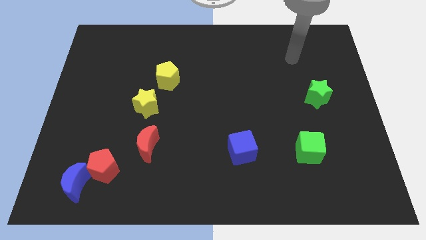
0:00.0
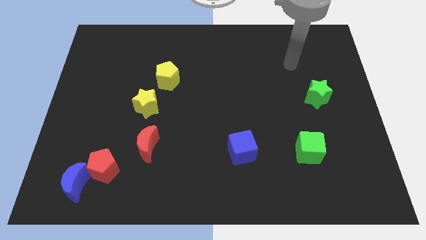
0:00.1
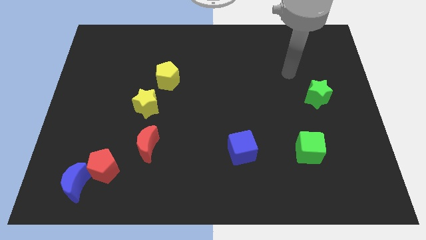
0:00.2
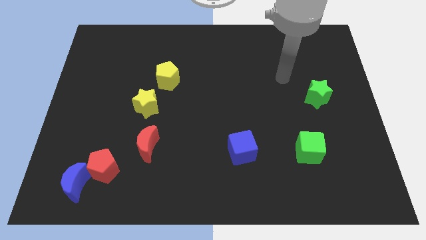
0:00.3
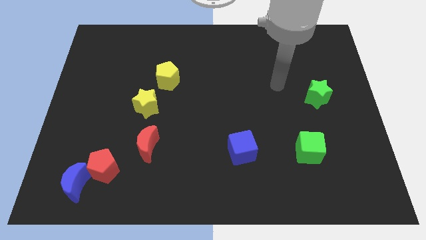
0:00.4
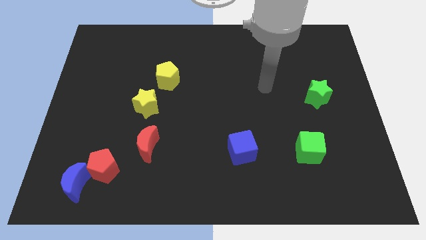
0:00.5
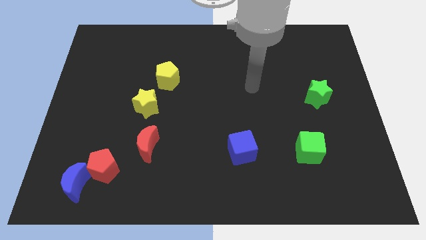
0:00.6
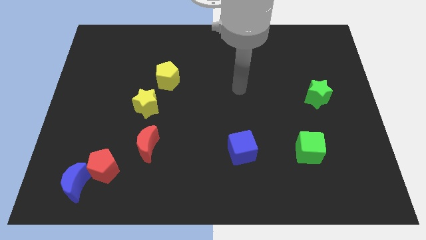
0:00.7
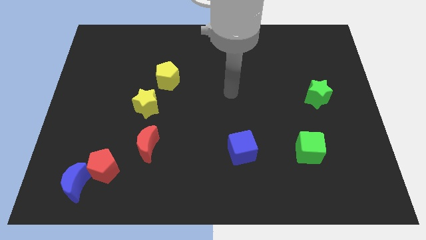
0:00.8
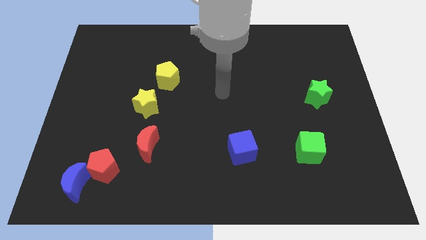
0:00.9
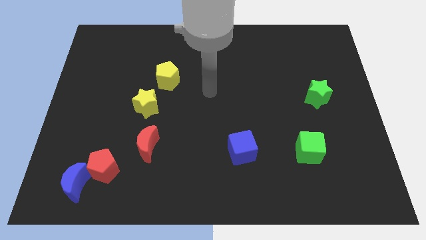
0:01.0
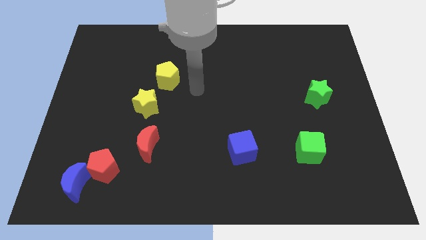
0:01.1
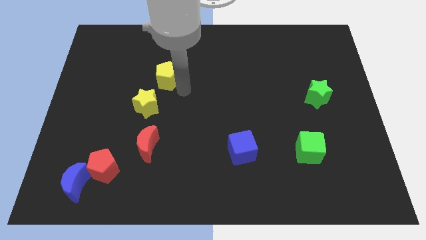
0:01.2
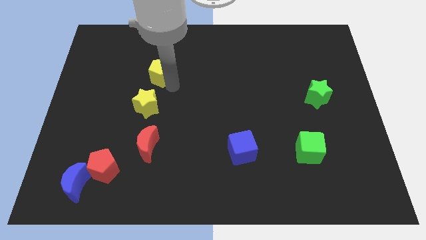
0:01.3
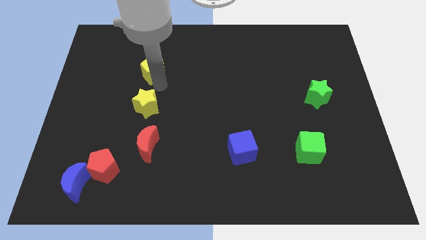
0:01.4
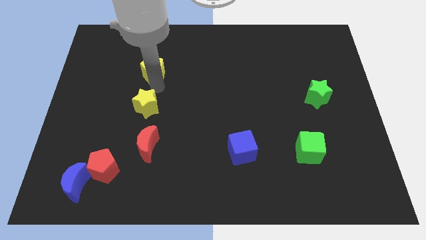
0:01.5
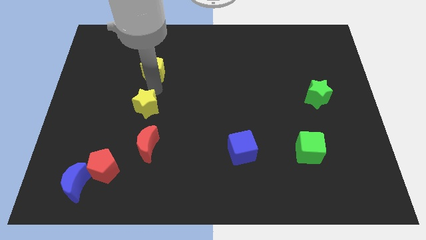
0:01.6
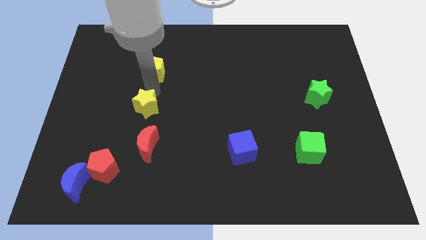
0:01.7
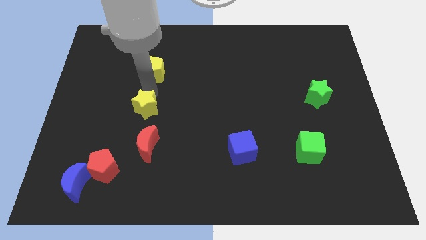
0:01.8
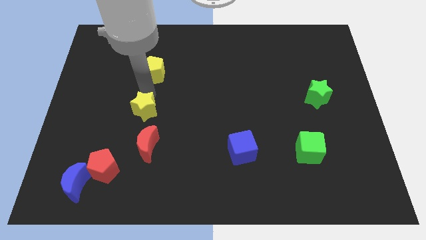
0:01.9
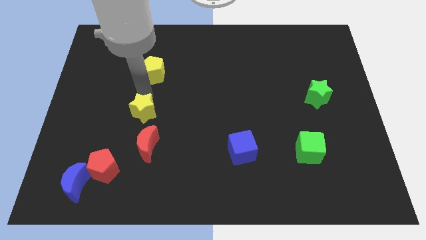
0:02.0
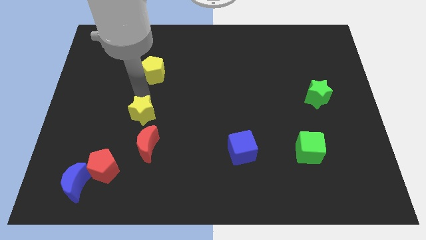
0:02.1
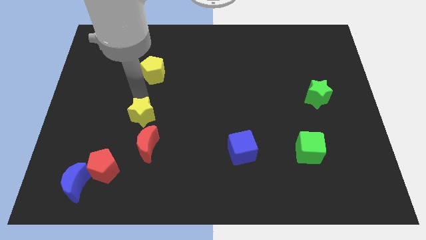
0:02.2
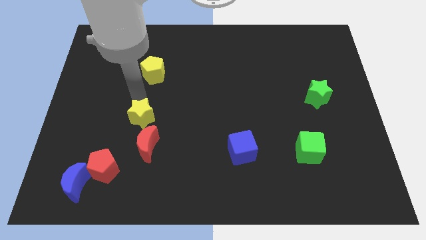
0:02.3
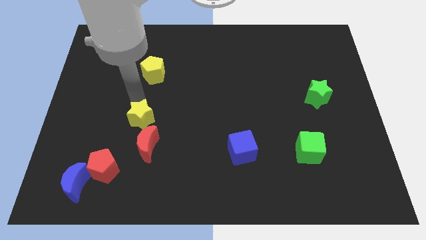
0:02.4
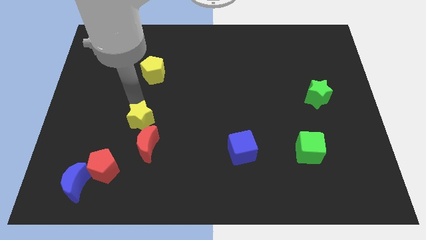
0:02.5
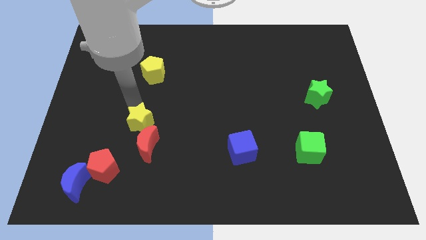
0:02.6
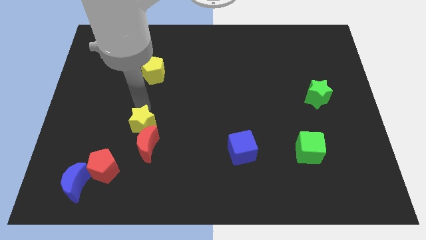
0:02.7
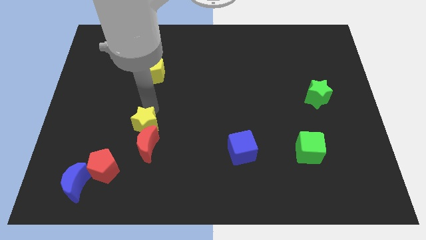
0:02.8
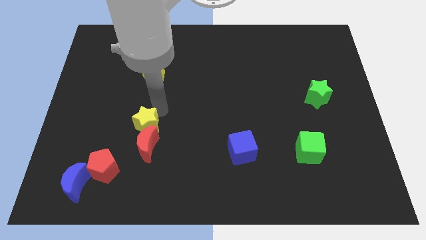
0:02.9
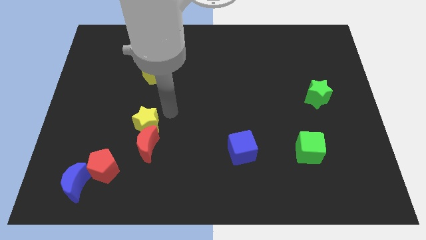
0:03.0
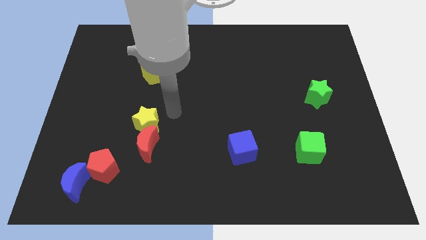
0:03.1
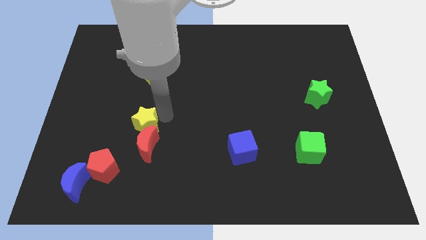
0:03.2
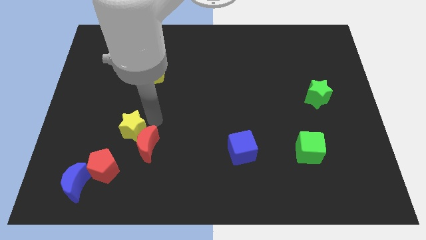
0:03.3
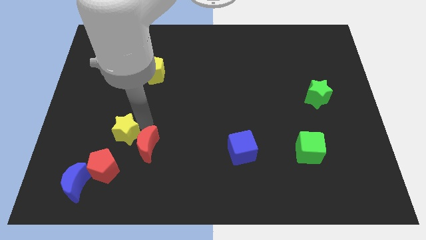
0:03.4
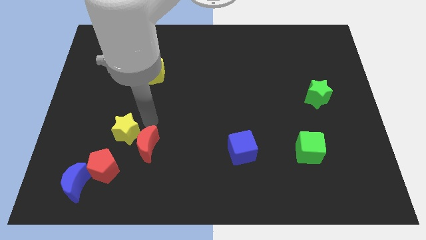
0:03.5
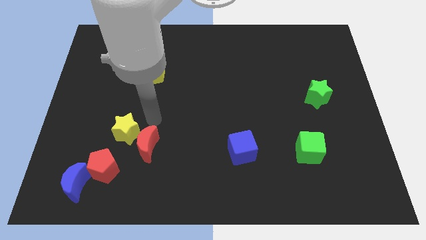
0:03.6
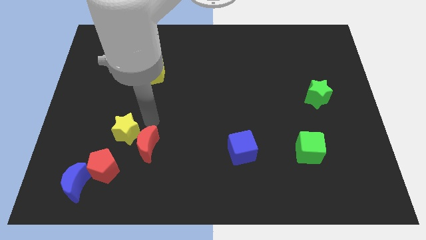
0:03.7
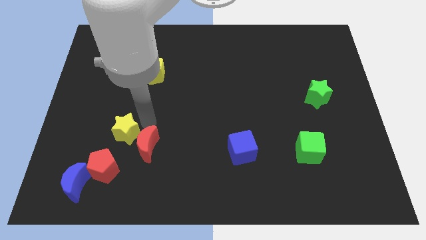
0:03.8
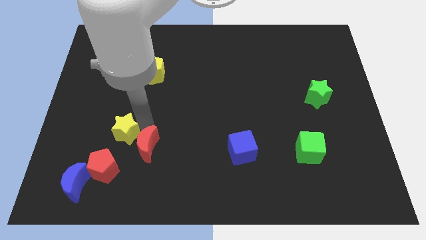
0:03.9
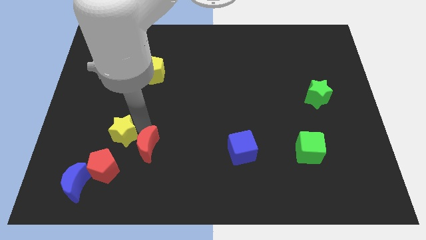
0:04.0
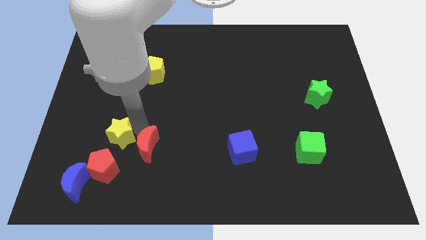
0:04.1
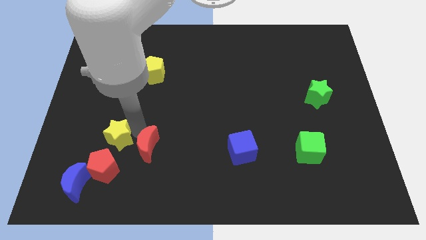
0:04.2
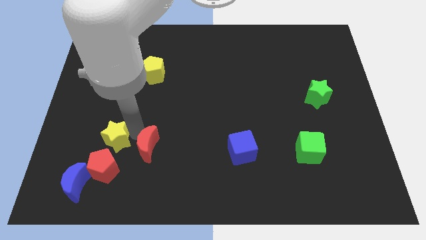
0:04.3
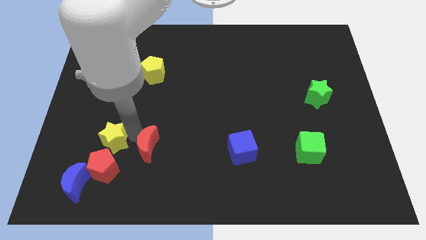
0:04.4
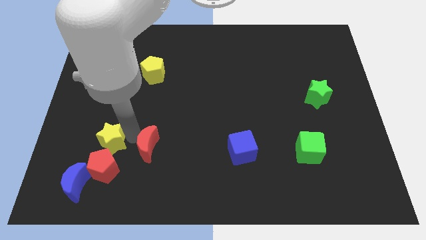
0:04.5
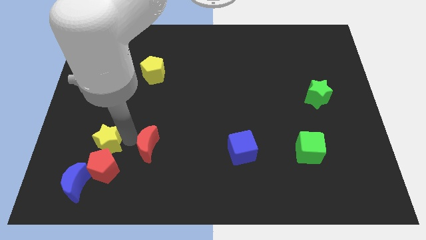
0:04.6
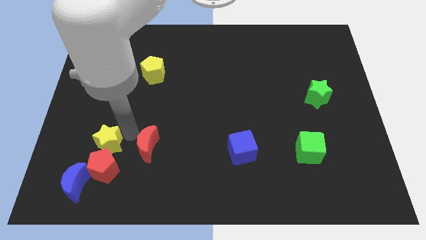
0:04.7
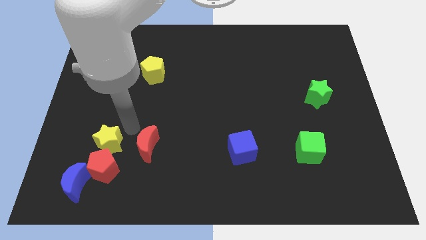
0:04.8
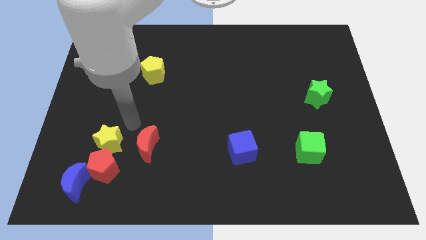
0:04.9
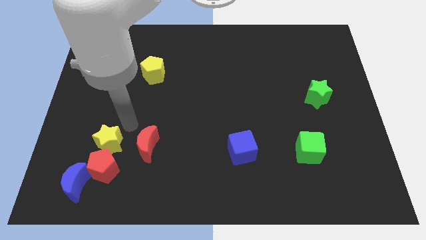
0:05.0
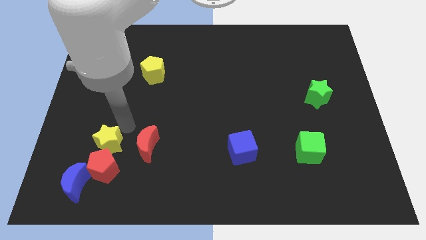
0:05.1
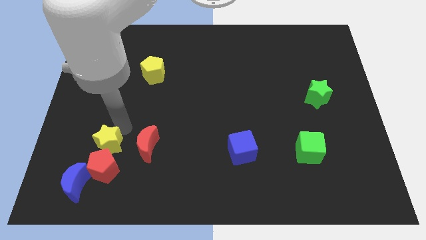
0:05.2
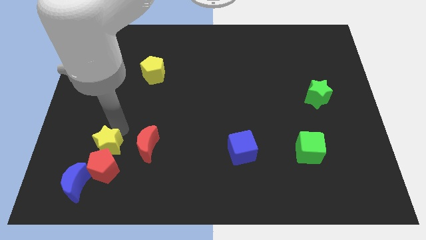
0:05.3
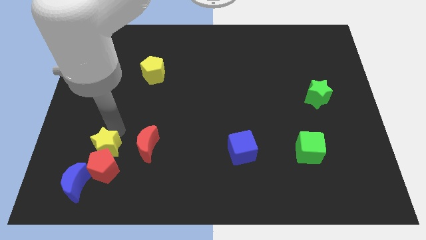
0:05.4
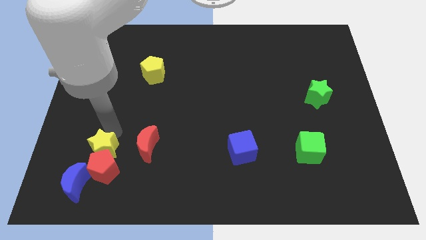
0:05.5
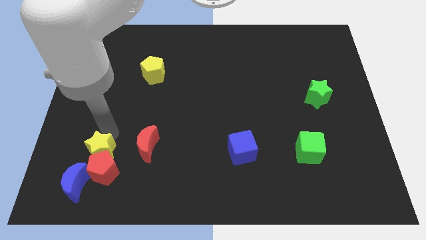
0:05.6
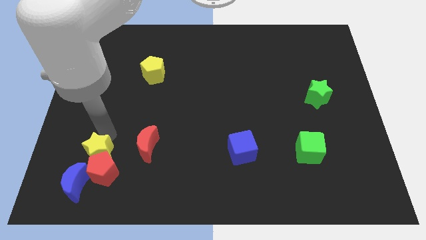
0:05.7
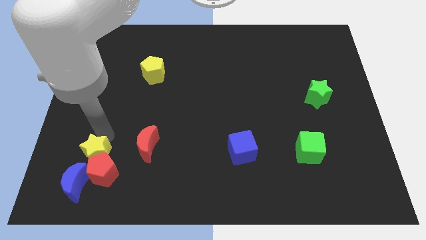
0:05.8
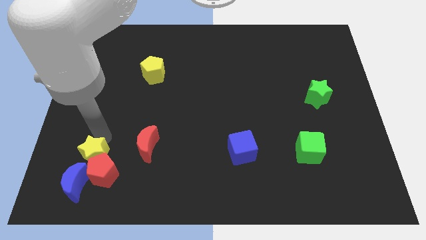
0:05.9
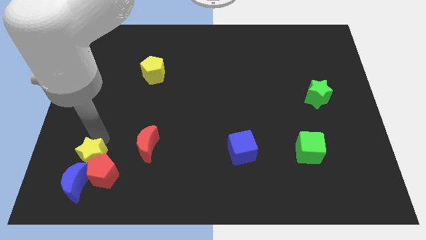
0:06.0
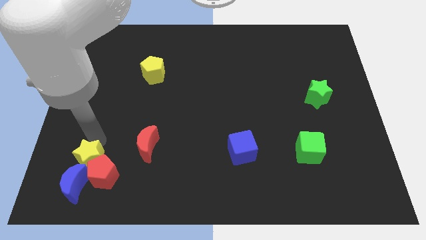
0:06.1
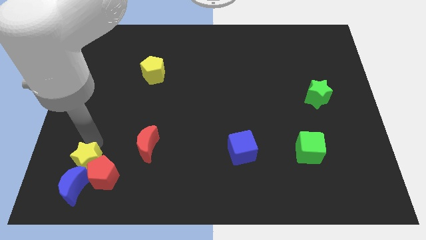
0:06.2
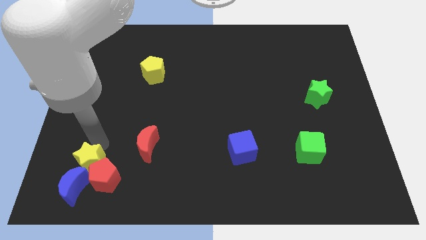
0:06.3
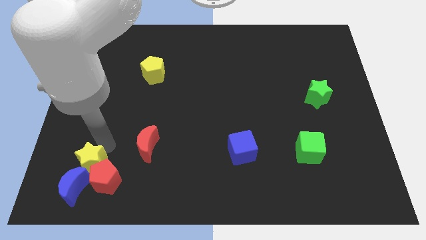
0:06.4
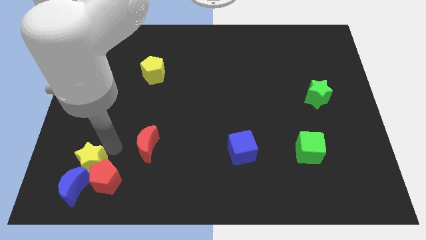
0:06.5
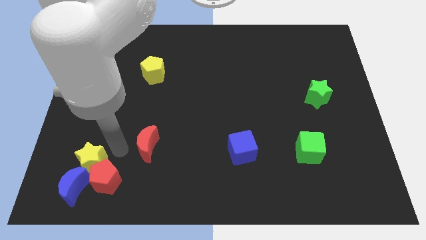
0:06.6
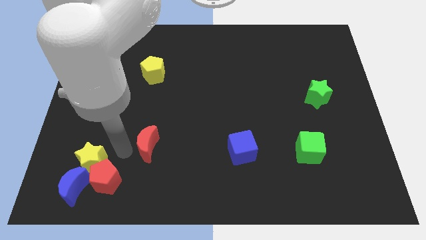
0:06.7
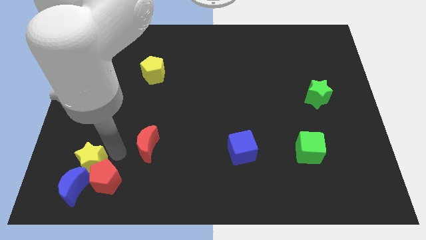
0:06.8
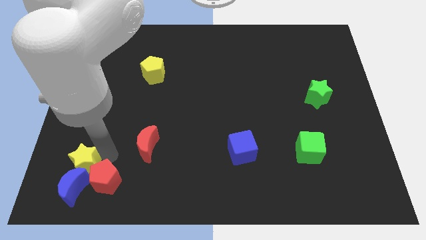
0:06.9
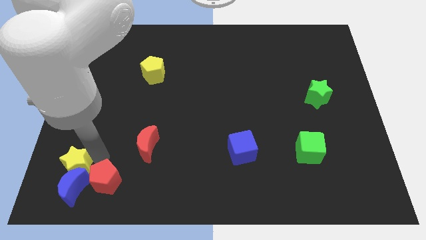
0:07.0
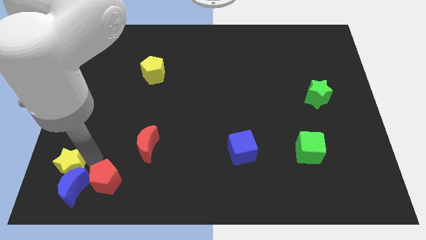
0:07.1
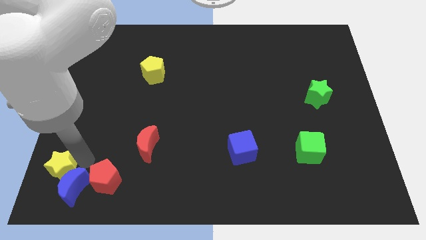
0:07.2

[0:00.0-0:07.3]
move the yellow star to the bottom left corner
